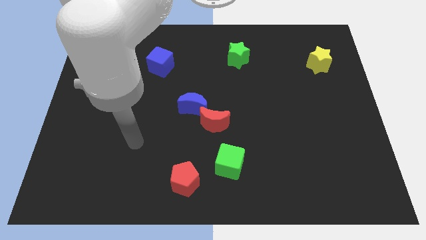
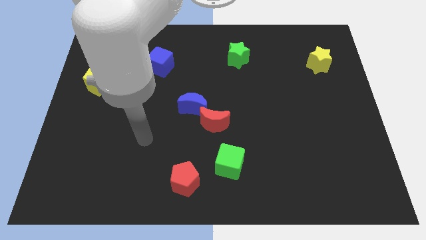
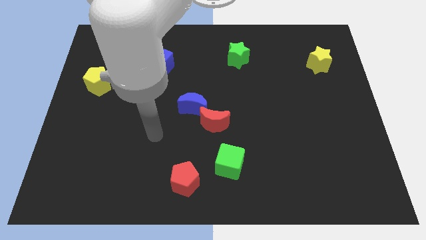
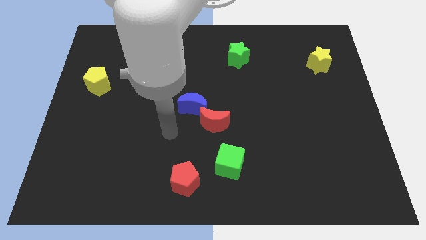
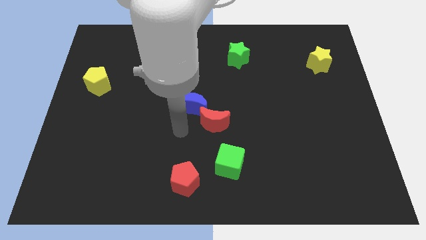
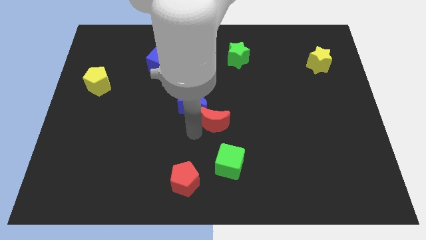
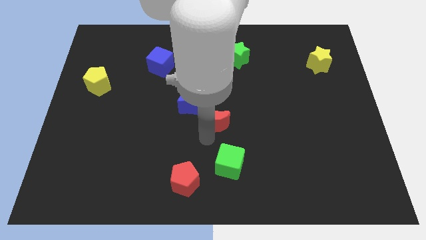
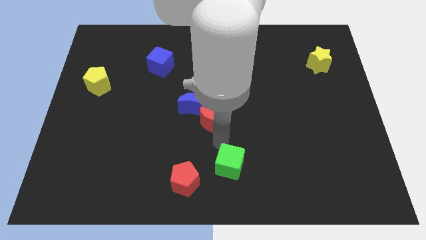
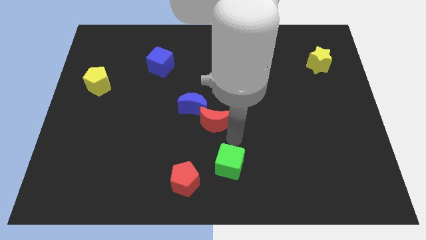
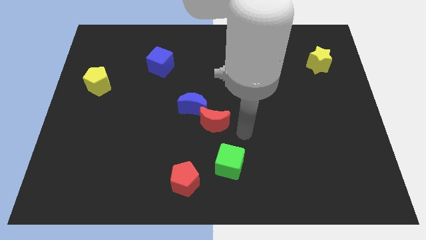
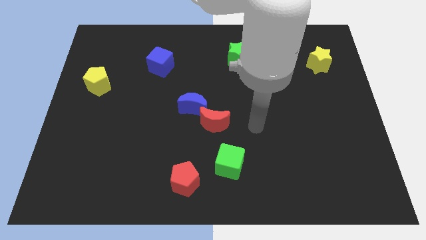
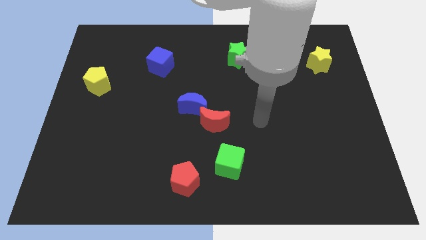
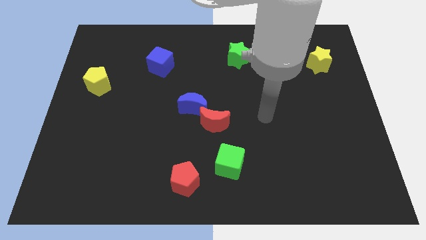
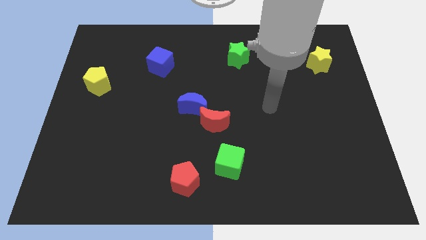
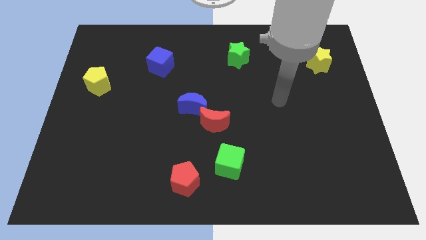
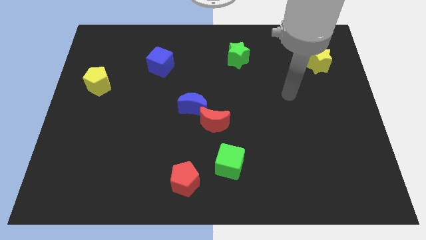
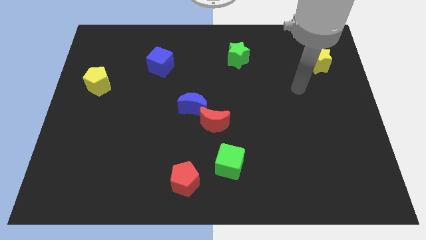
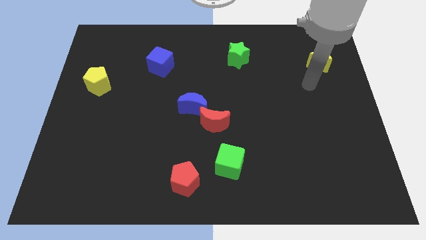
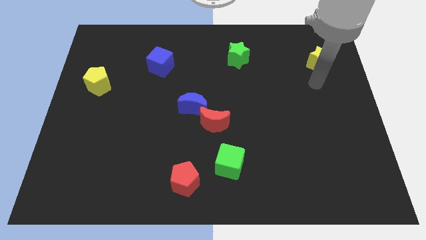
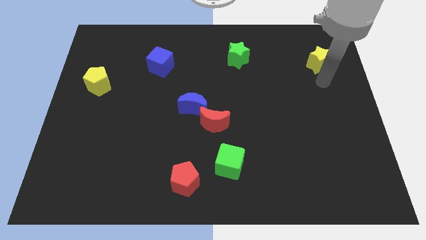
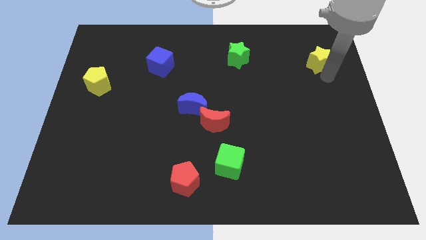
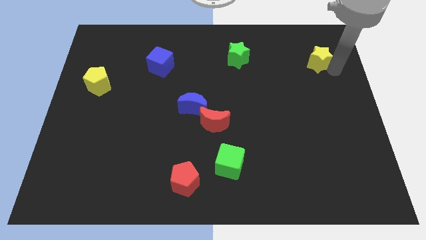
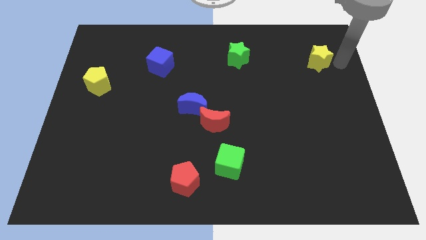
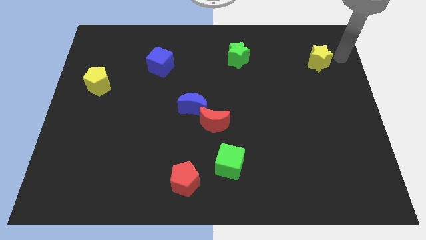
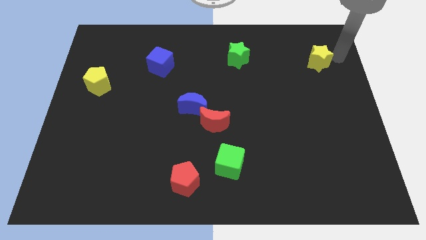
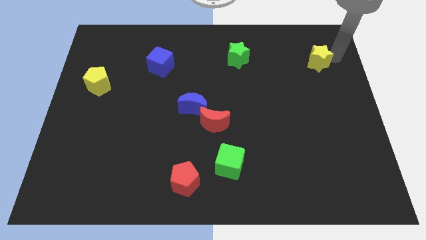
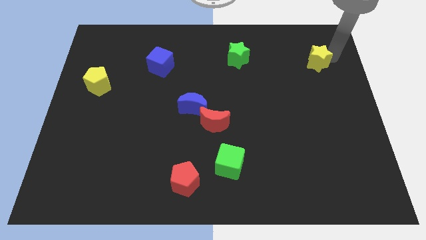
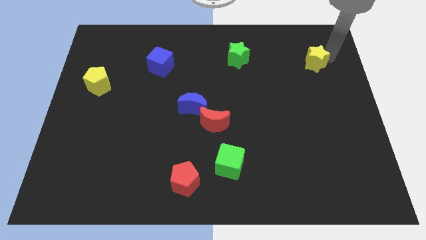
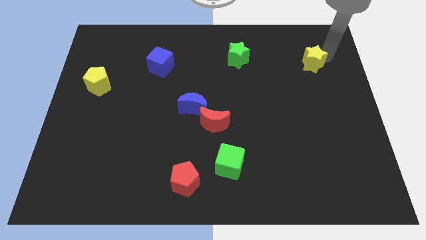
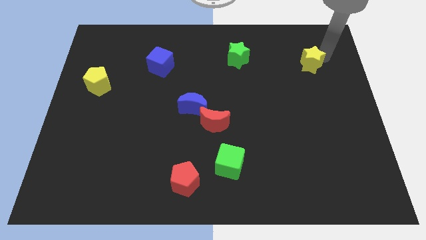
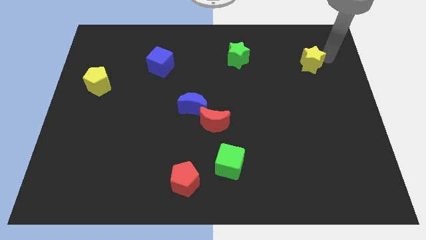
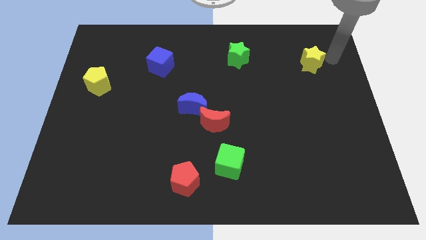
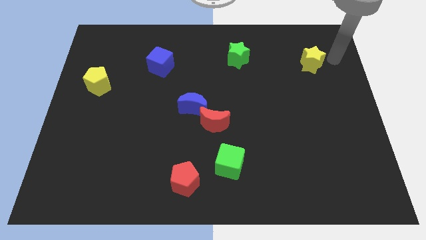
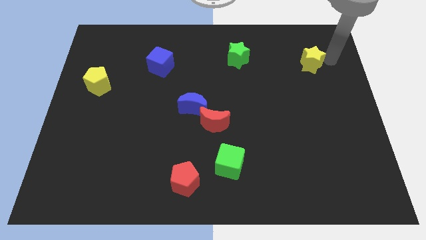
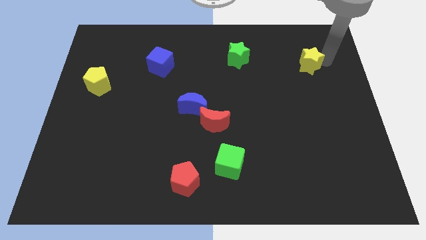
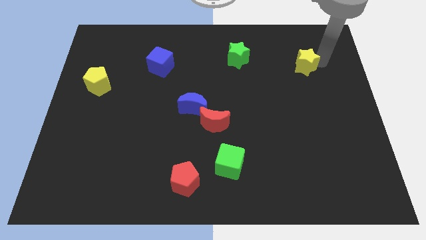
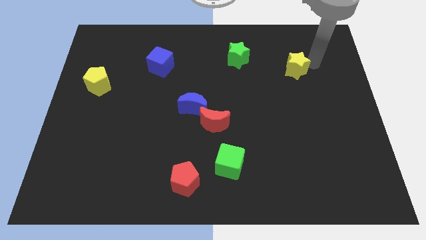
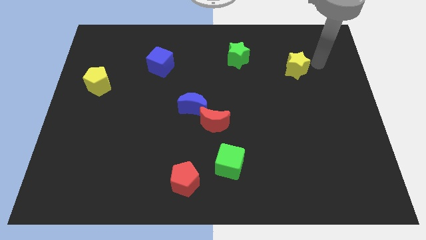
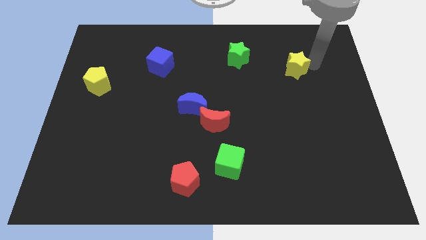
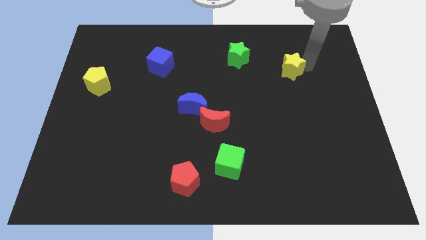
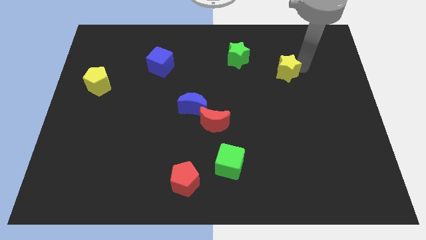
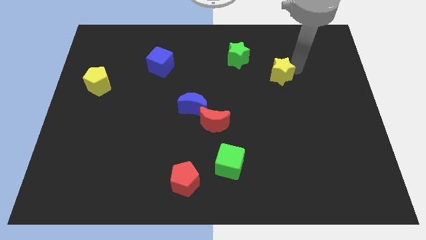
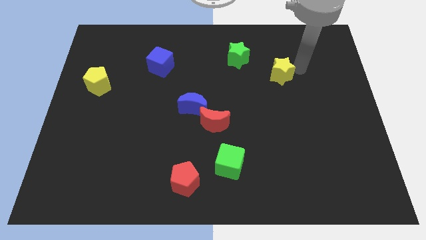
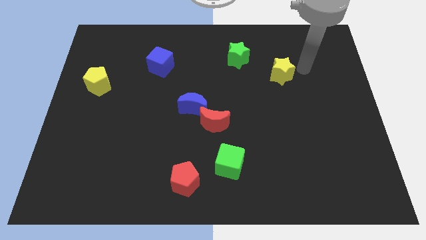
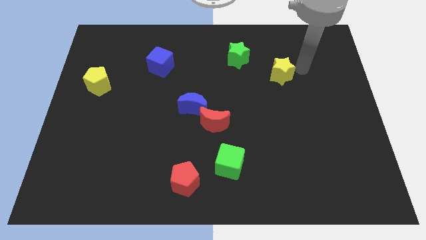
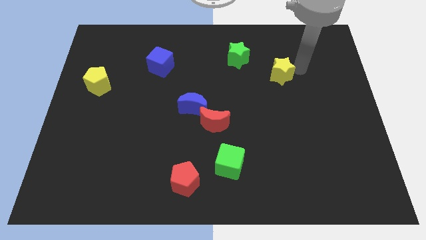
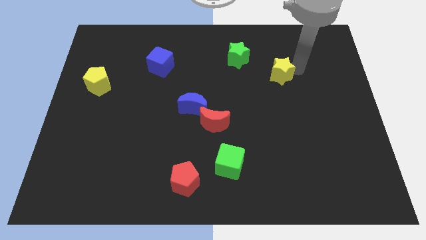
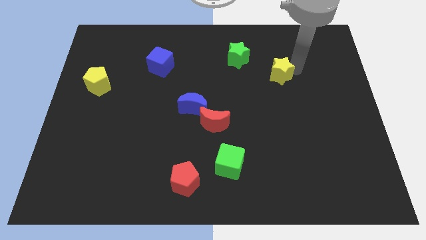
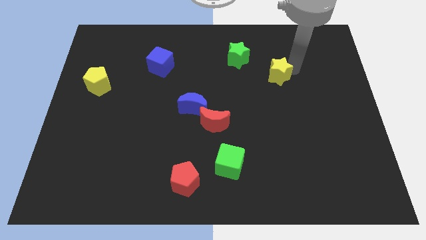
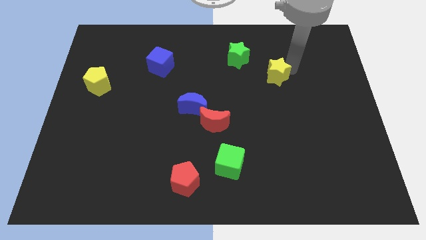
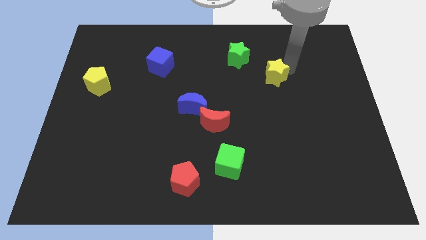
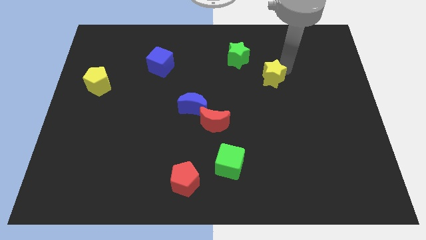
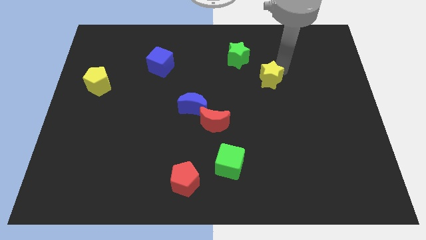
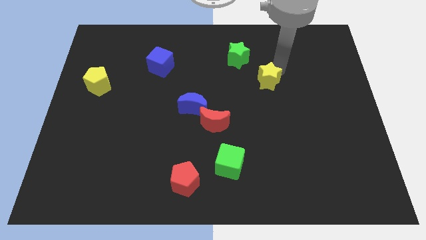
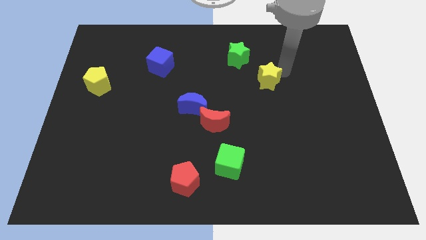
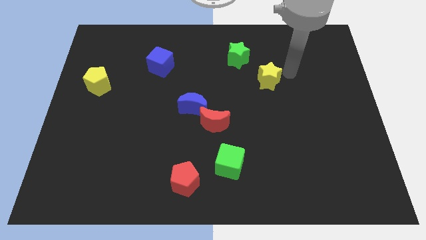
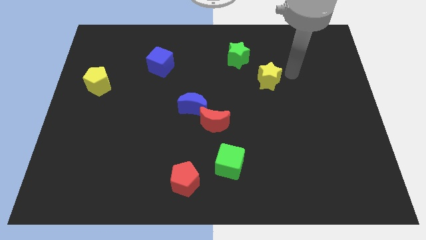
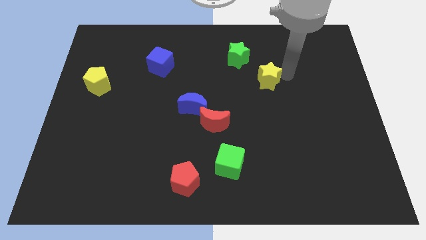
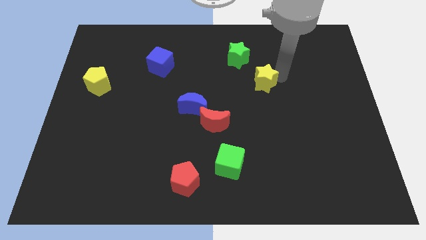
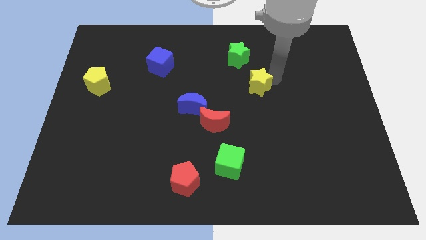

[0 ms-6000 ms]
move the yellow star to the middle
